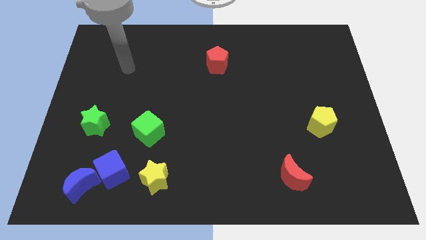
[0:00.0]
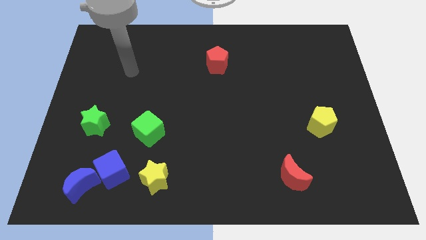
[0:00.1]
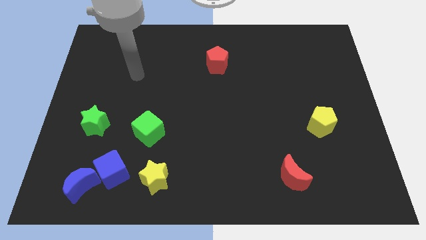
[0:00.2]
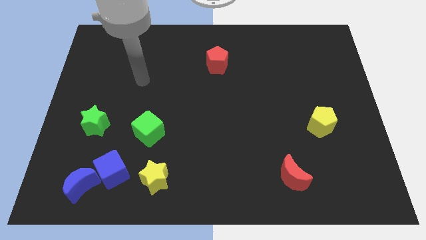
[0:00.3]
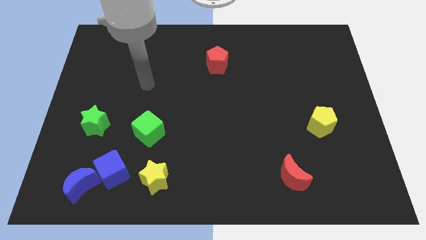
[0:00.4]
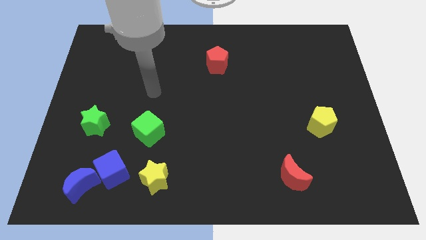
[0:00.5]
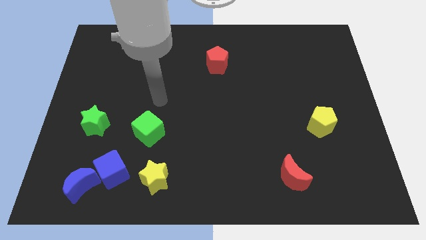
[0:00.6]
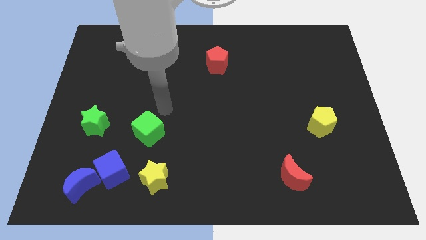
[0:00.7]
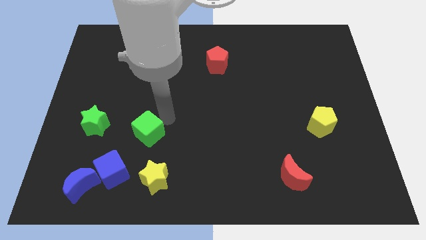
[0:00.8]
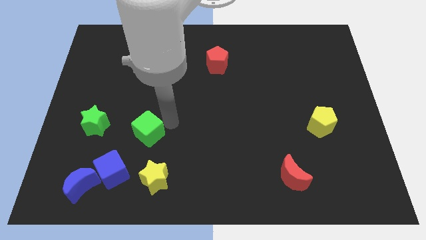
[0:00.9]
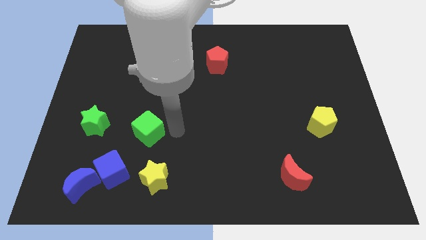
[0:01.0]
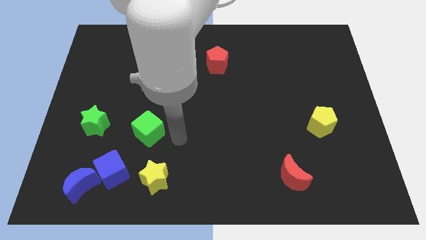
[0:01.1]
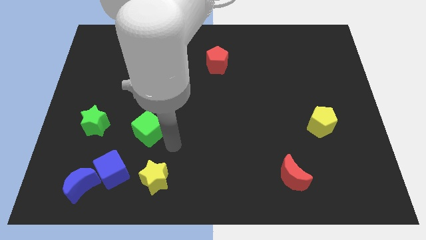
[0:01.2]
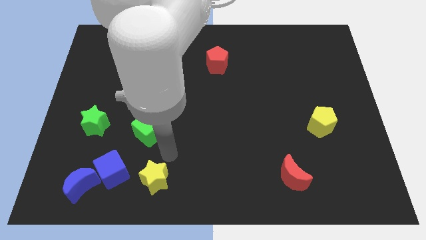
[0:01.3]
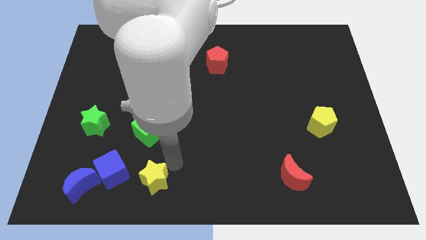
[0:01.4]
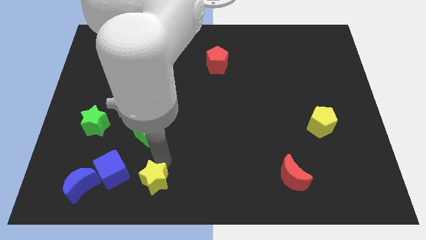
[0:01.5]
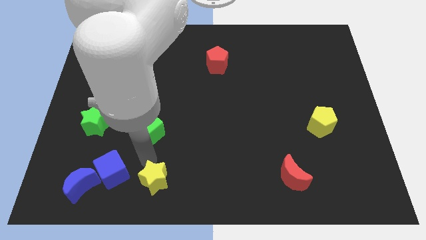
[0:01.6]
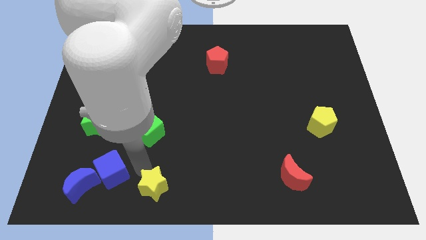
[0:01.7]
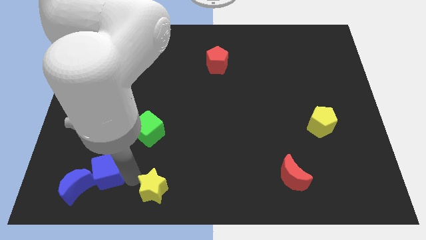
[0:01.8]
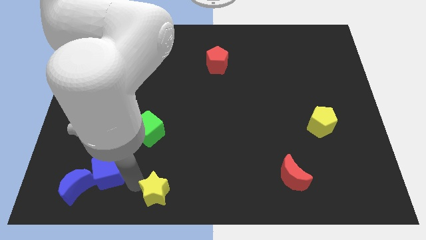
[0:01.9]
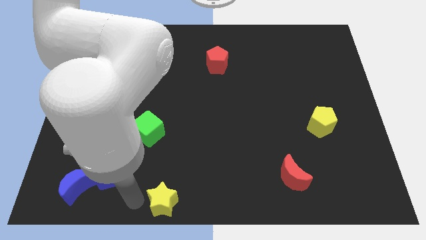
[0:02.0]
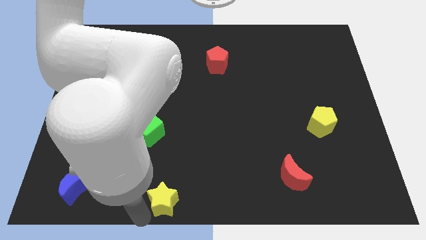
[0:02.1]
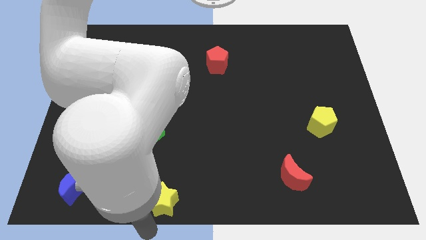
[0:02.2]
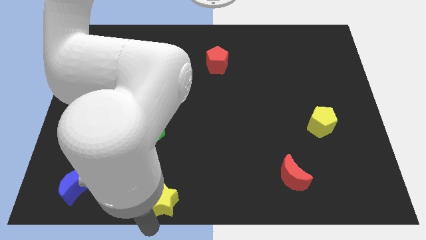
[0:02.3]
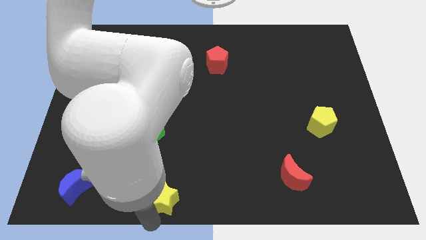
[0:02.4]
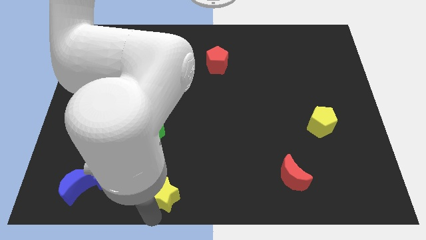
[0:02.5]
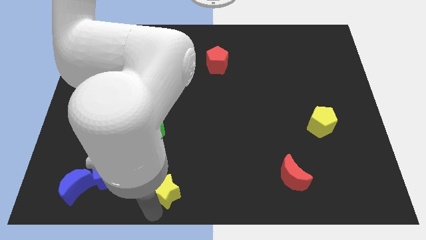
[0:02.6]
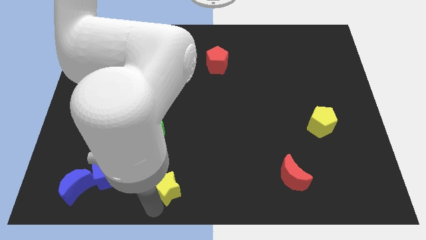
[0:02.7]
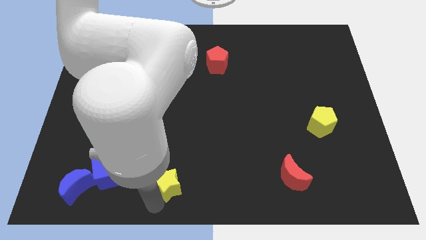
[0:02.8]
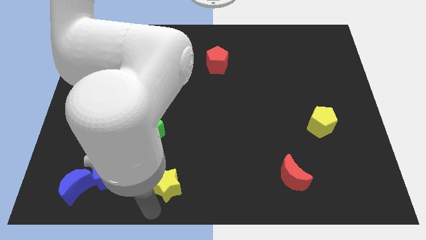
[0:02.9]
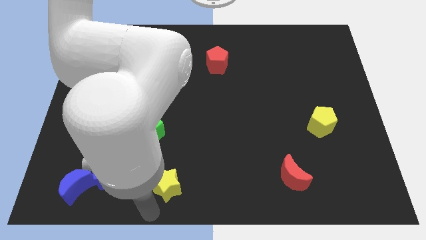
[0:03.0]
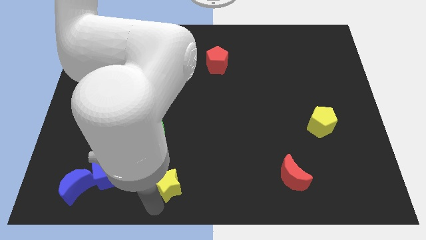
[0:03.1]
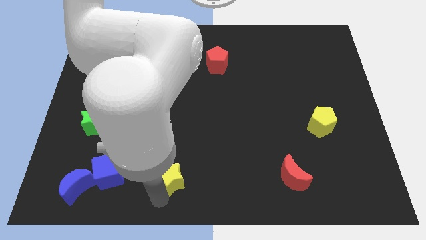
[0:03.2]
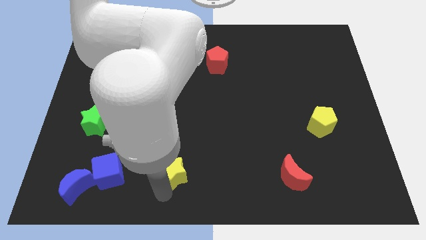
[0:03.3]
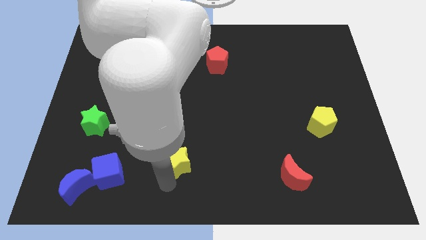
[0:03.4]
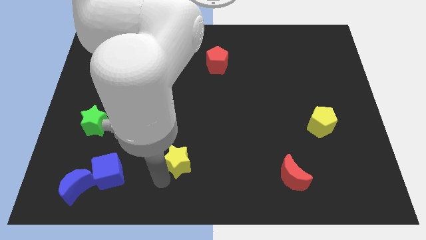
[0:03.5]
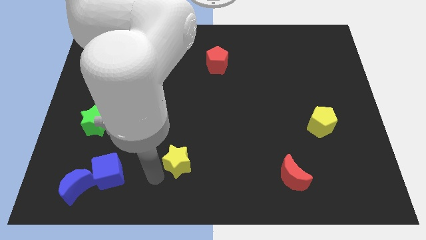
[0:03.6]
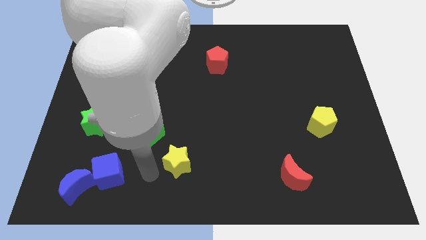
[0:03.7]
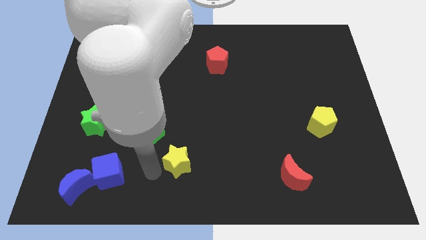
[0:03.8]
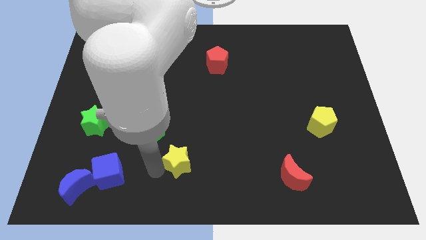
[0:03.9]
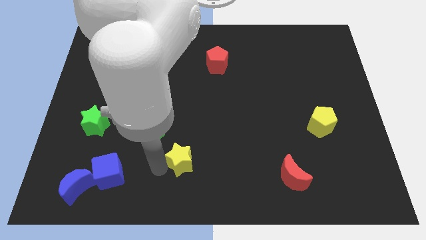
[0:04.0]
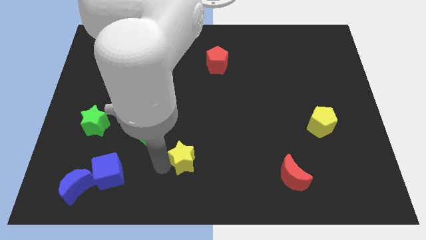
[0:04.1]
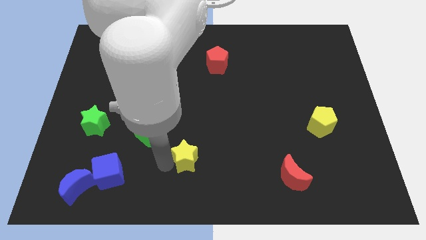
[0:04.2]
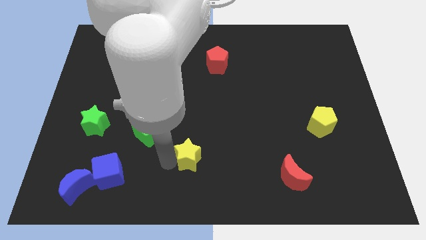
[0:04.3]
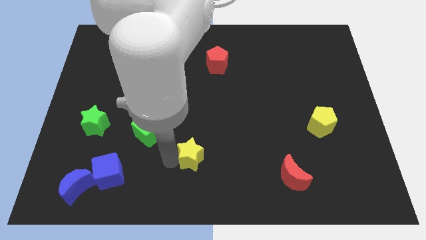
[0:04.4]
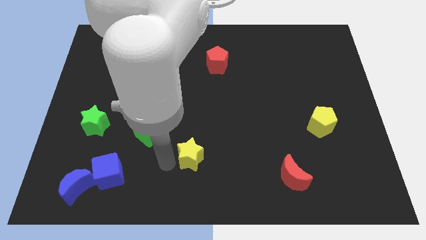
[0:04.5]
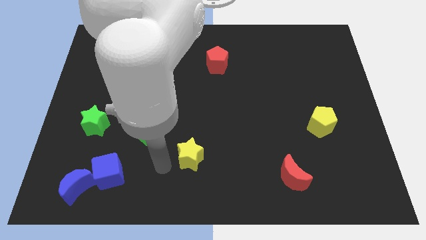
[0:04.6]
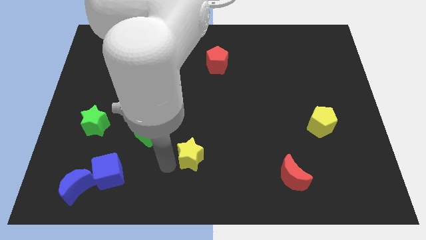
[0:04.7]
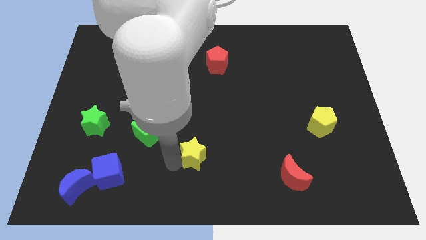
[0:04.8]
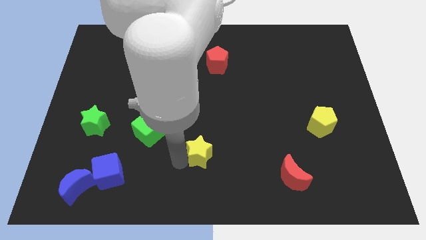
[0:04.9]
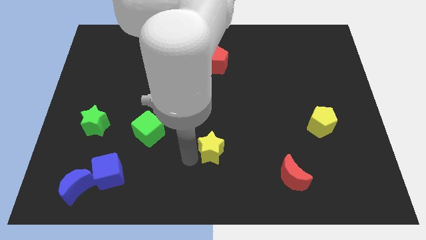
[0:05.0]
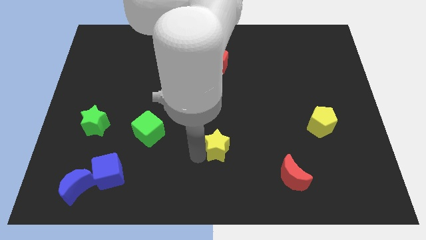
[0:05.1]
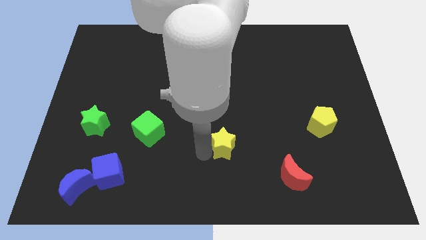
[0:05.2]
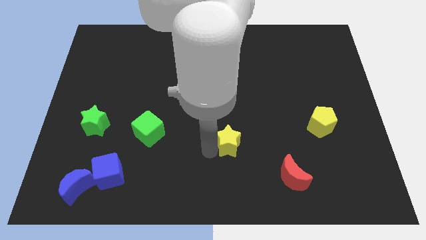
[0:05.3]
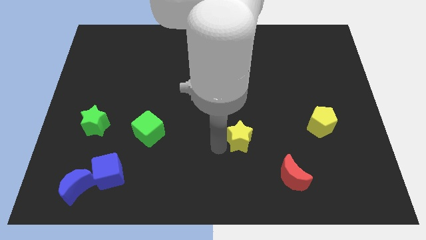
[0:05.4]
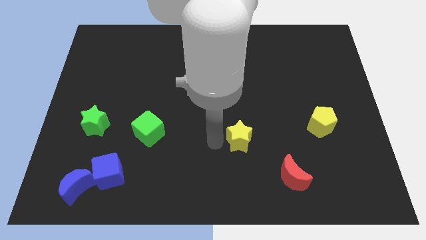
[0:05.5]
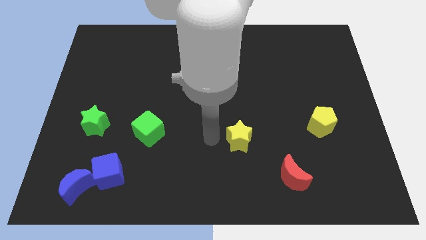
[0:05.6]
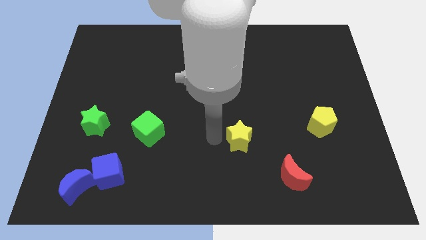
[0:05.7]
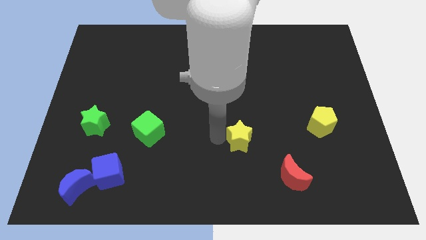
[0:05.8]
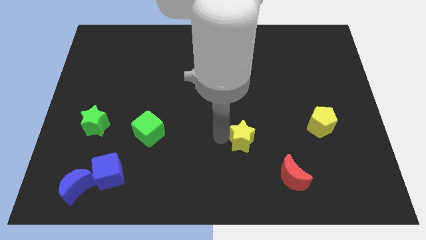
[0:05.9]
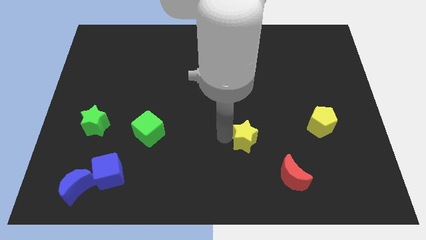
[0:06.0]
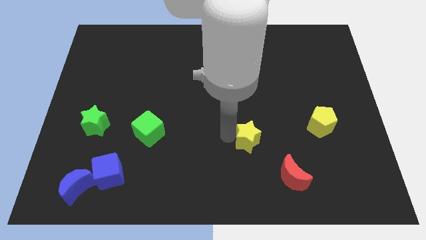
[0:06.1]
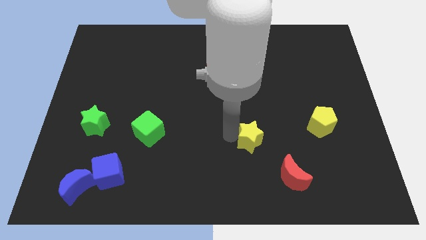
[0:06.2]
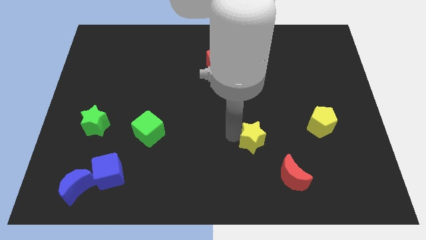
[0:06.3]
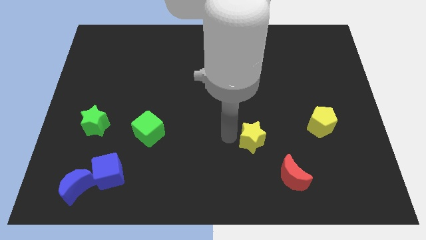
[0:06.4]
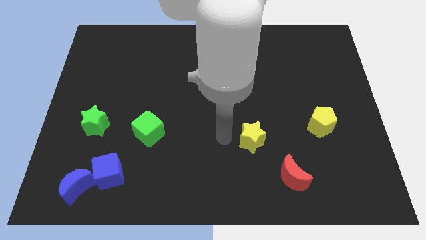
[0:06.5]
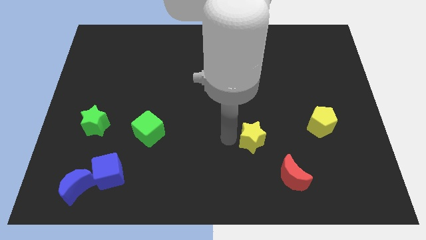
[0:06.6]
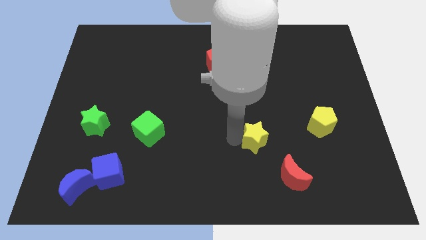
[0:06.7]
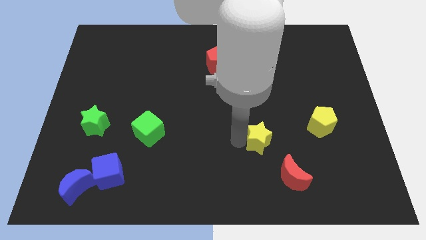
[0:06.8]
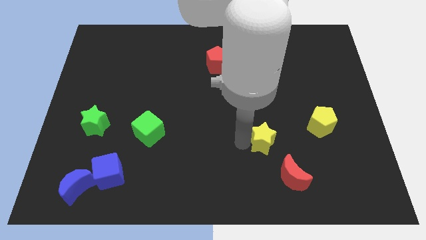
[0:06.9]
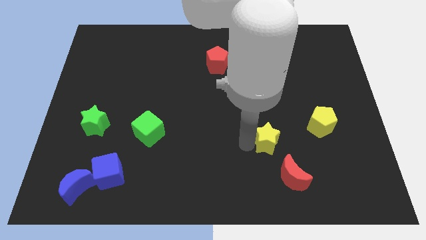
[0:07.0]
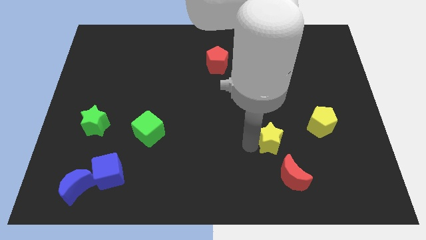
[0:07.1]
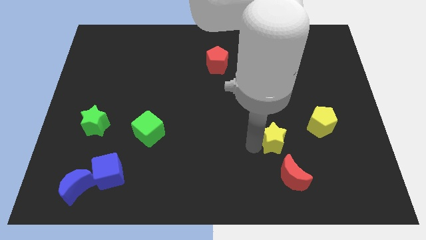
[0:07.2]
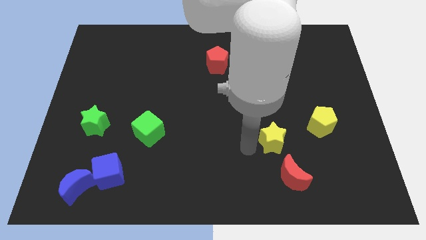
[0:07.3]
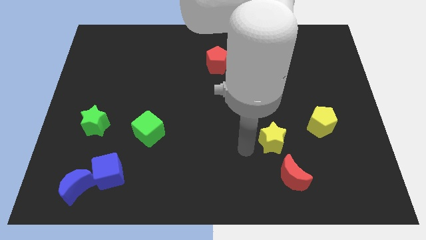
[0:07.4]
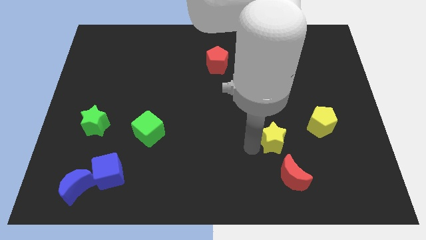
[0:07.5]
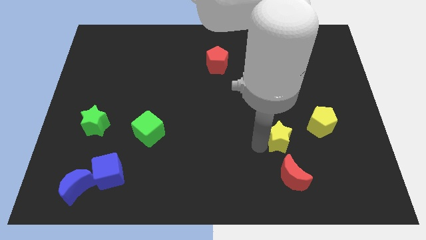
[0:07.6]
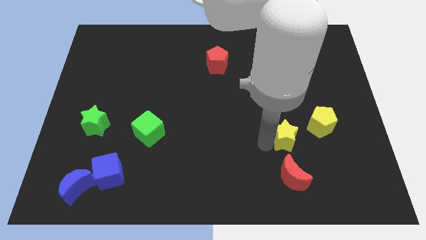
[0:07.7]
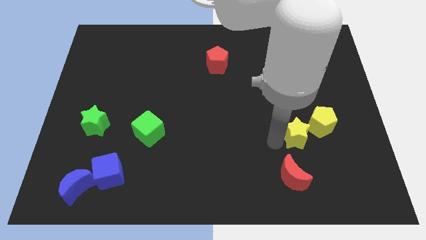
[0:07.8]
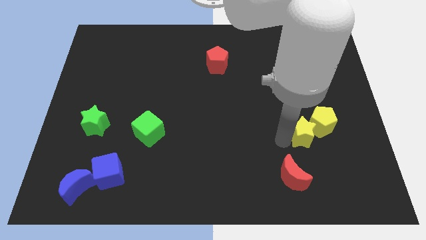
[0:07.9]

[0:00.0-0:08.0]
put the yellow star to the yellow pentagon
